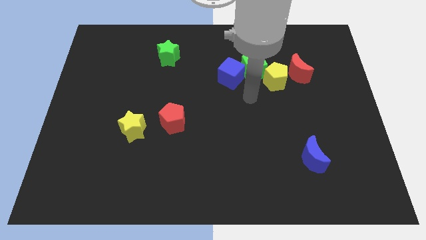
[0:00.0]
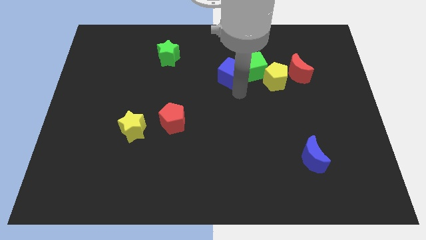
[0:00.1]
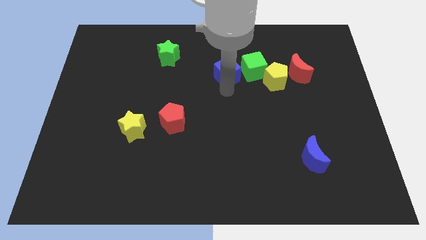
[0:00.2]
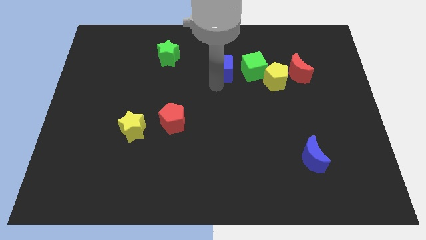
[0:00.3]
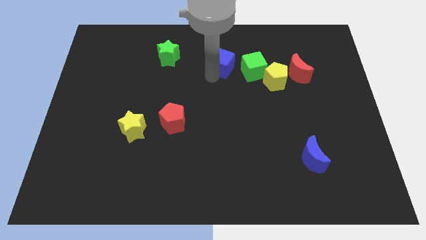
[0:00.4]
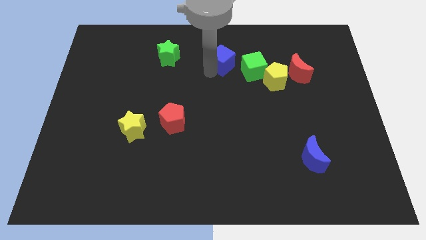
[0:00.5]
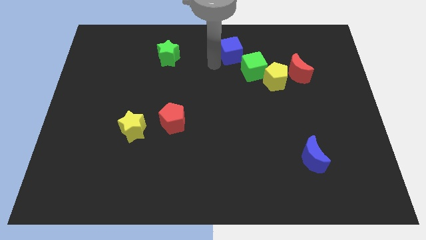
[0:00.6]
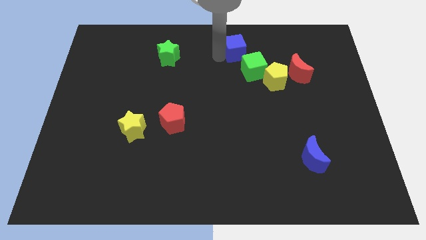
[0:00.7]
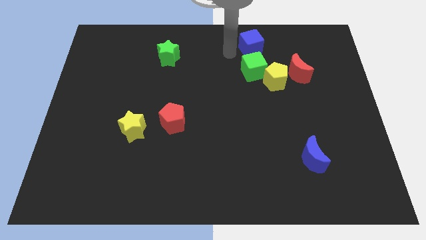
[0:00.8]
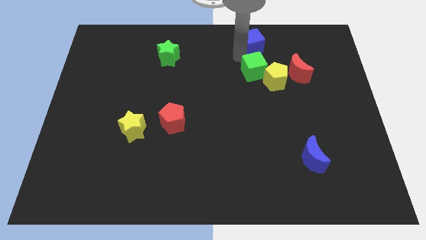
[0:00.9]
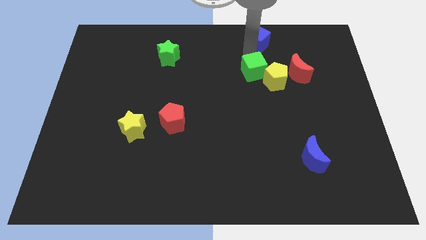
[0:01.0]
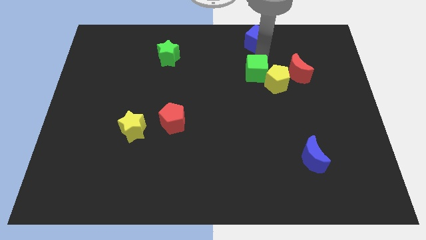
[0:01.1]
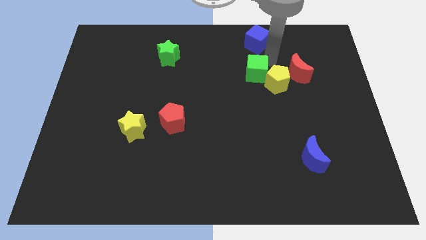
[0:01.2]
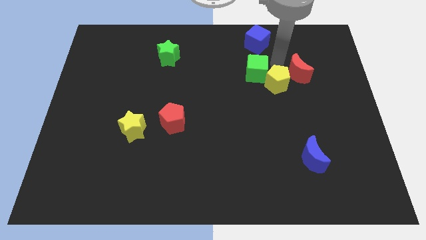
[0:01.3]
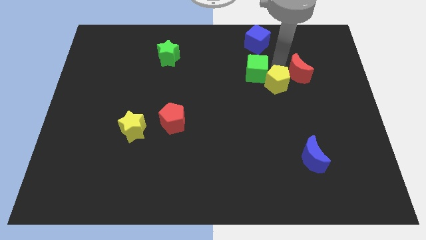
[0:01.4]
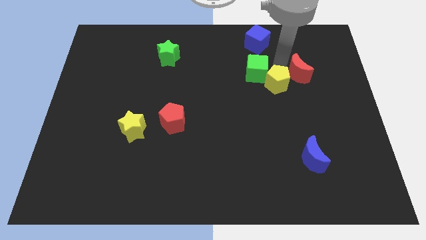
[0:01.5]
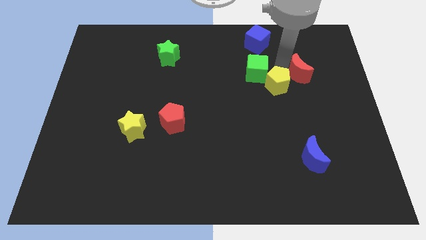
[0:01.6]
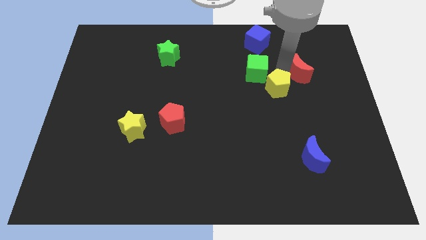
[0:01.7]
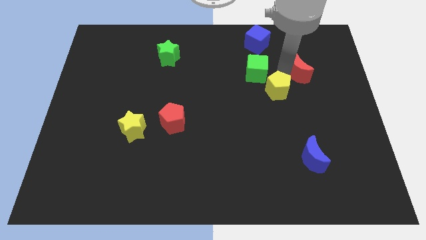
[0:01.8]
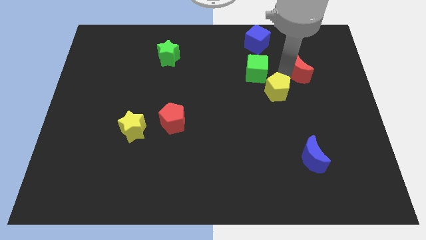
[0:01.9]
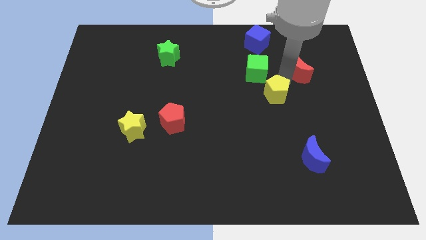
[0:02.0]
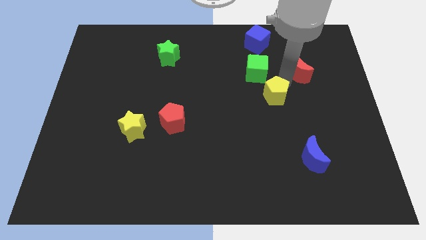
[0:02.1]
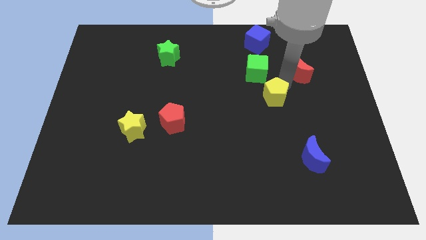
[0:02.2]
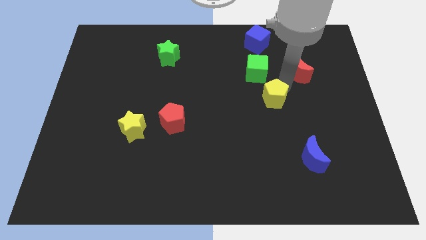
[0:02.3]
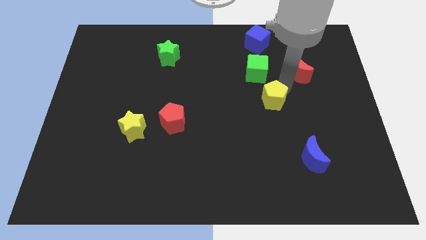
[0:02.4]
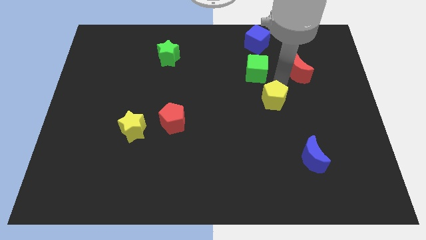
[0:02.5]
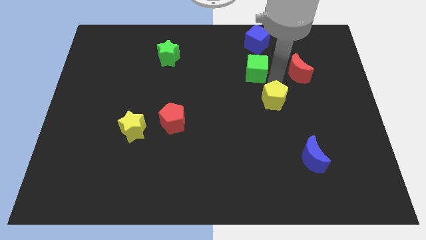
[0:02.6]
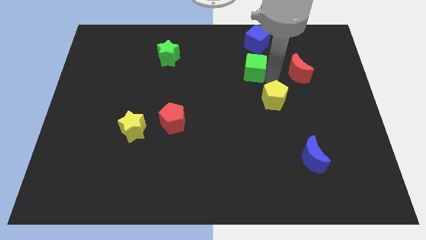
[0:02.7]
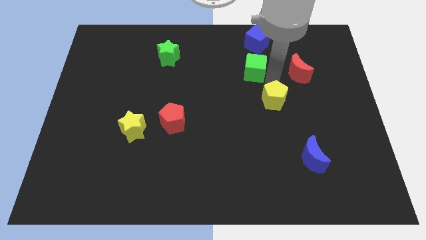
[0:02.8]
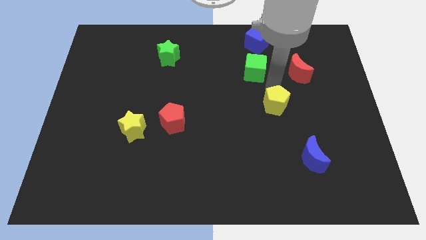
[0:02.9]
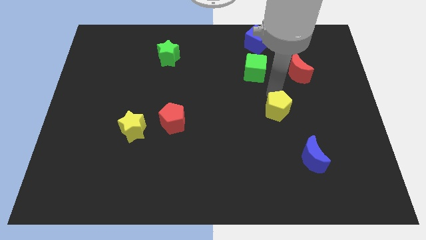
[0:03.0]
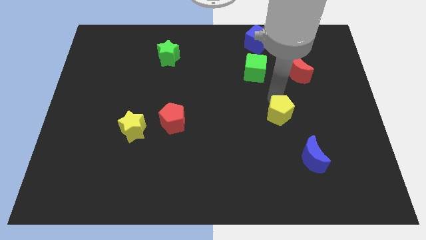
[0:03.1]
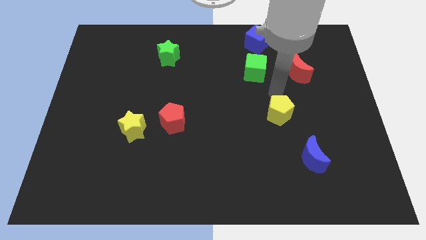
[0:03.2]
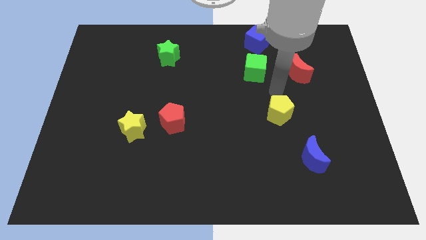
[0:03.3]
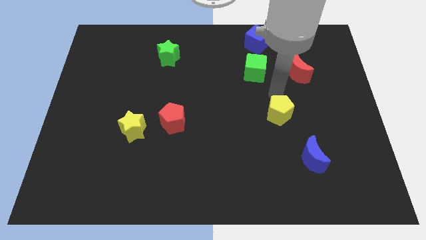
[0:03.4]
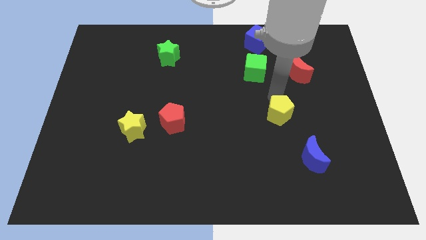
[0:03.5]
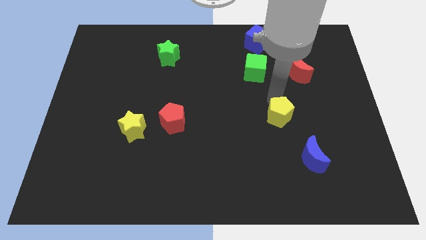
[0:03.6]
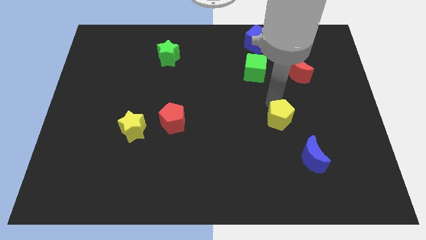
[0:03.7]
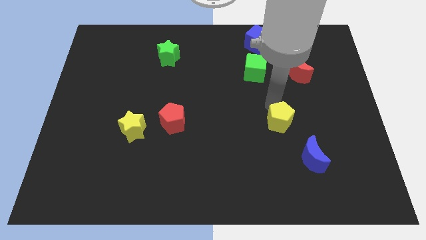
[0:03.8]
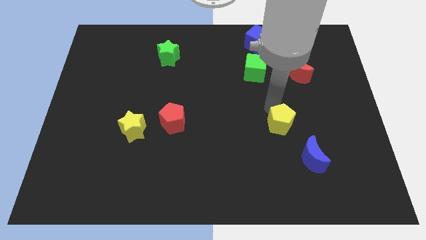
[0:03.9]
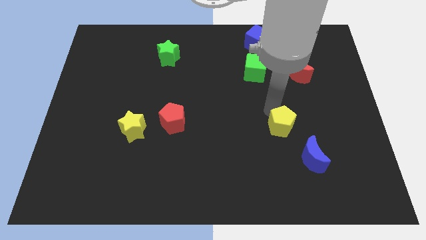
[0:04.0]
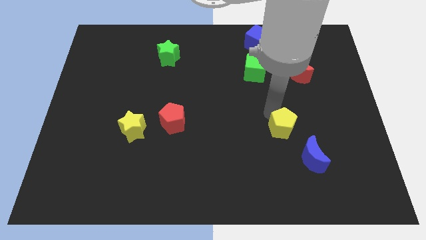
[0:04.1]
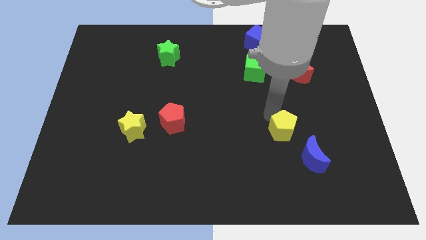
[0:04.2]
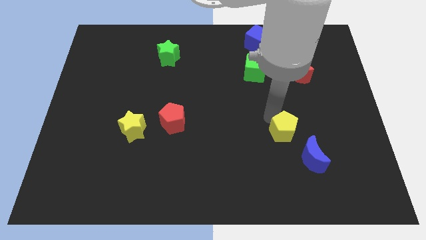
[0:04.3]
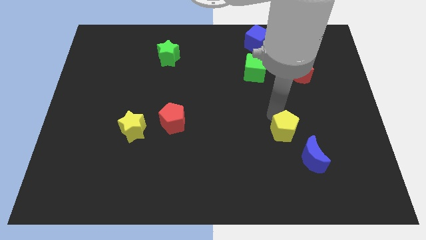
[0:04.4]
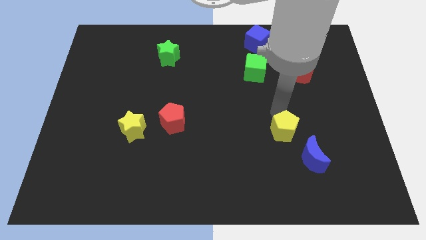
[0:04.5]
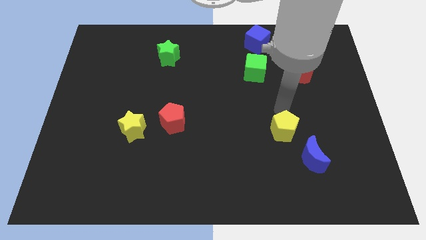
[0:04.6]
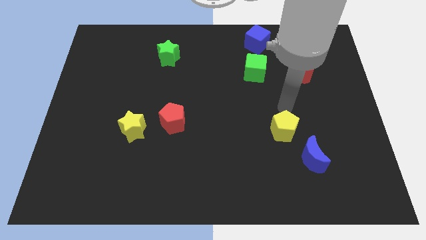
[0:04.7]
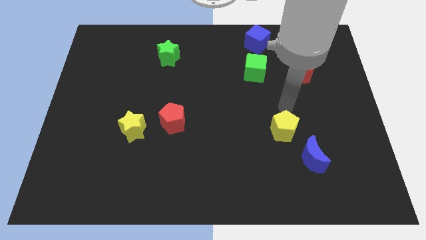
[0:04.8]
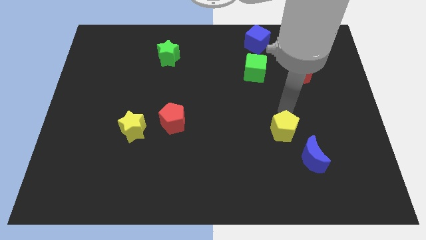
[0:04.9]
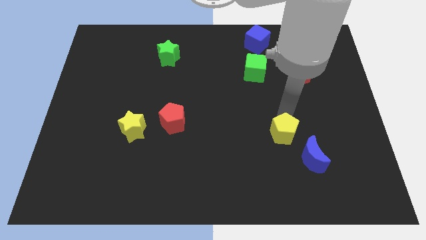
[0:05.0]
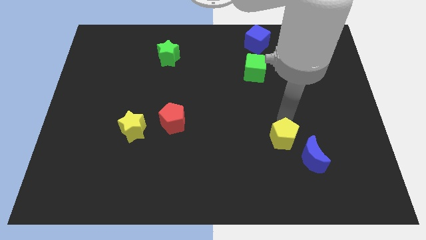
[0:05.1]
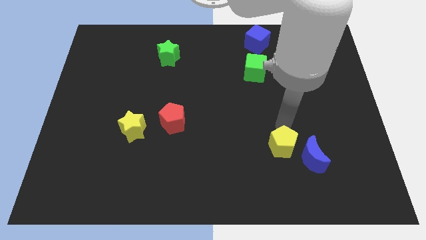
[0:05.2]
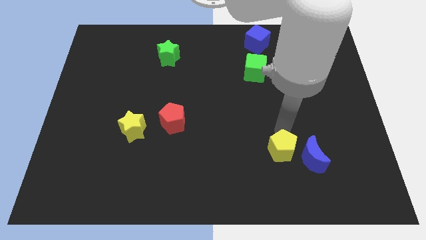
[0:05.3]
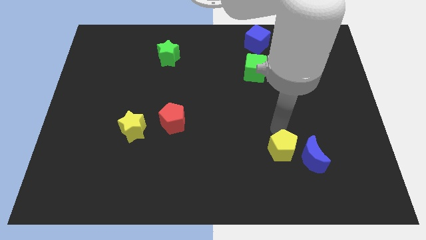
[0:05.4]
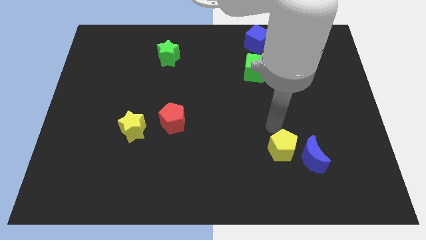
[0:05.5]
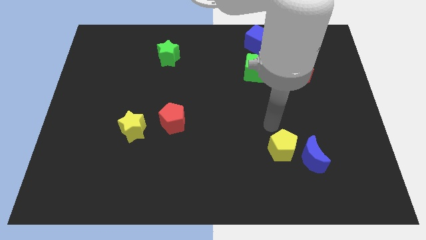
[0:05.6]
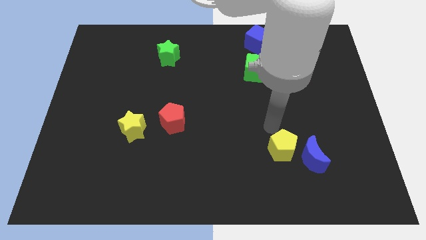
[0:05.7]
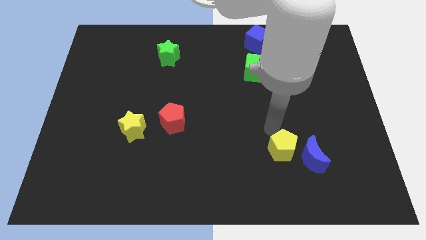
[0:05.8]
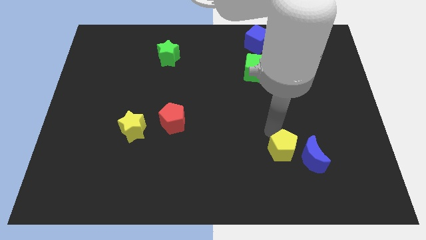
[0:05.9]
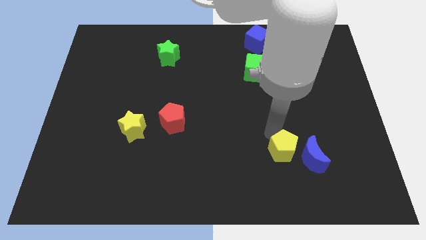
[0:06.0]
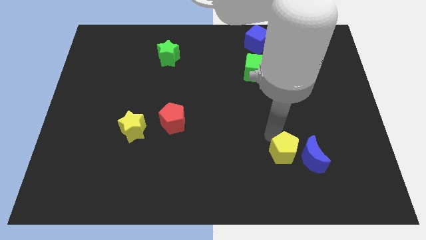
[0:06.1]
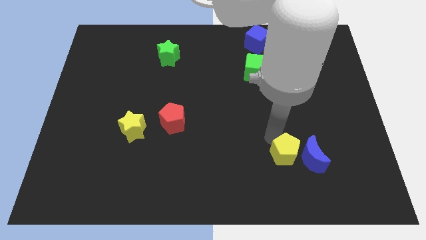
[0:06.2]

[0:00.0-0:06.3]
put the yellow pentagon to the bottom left of the blue moon
